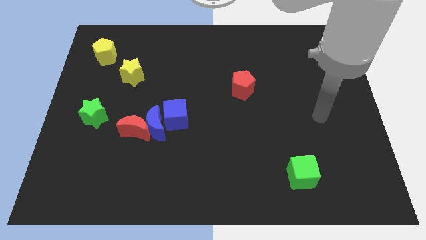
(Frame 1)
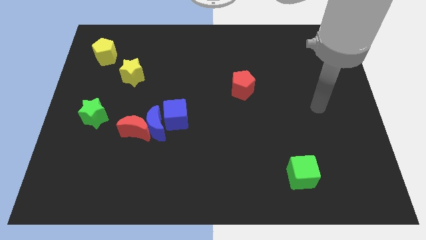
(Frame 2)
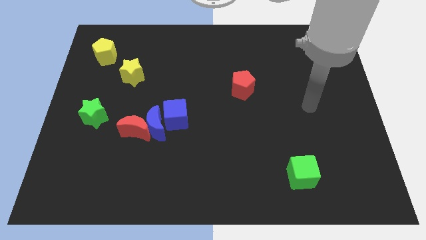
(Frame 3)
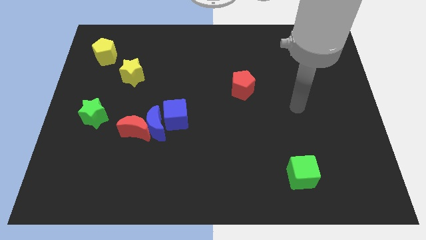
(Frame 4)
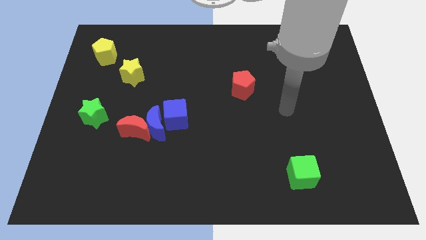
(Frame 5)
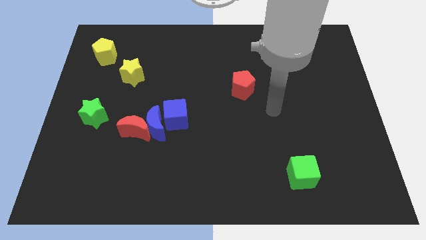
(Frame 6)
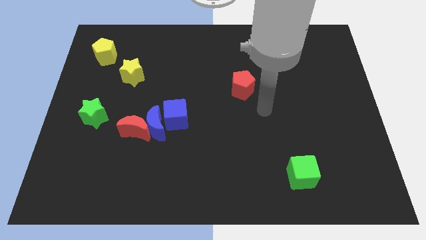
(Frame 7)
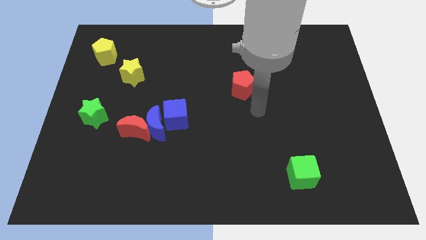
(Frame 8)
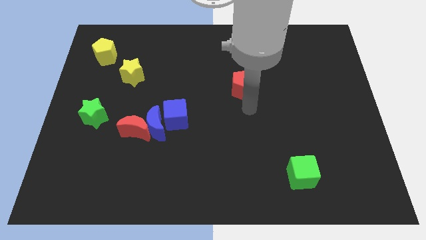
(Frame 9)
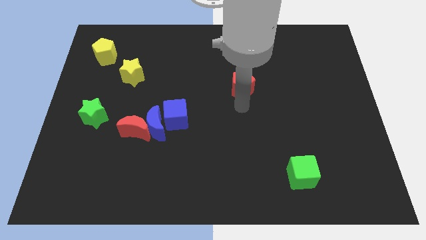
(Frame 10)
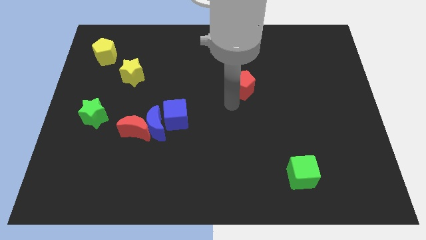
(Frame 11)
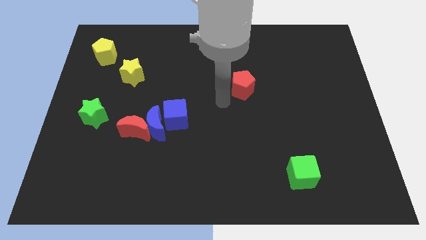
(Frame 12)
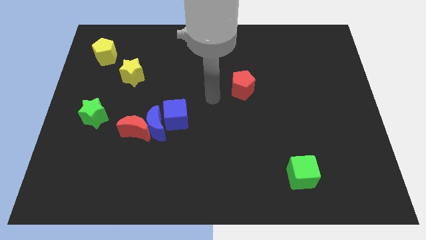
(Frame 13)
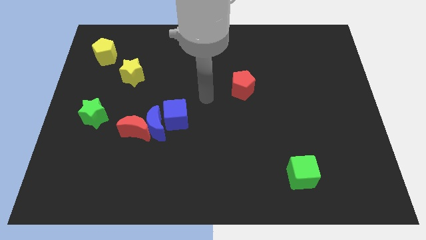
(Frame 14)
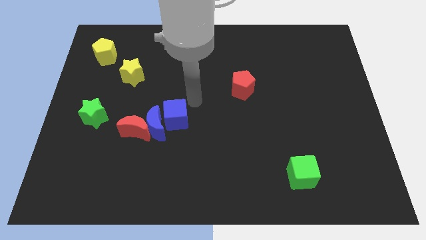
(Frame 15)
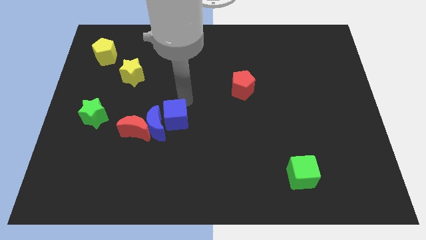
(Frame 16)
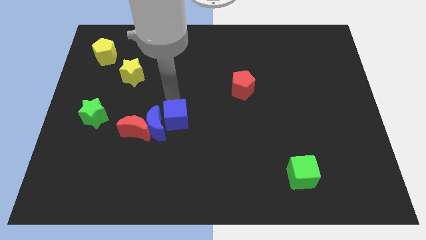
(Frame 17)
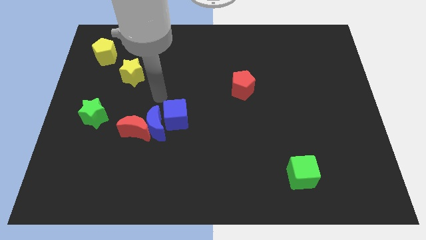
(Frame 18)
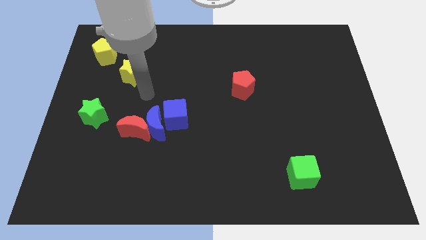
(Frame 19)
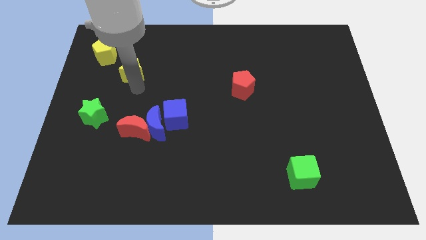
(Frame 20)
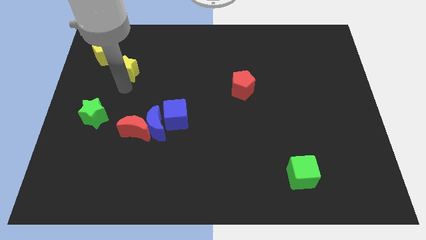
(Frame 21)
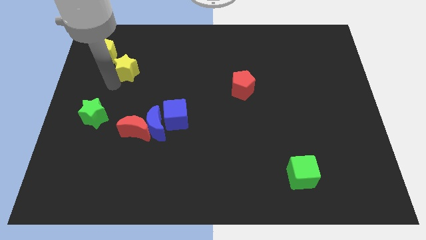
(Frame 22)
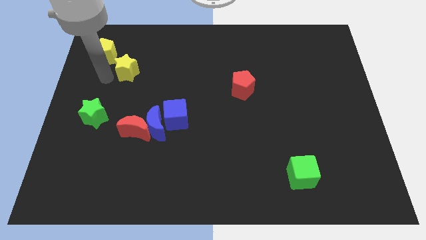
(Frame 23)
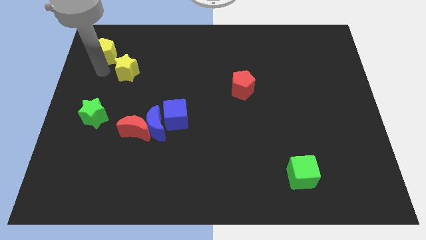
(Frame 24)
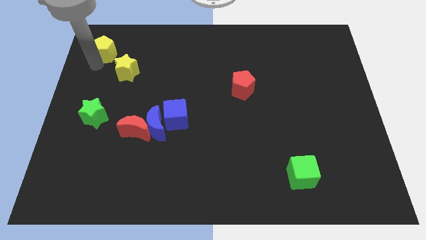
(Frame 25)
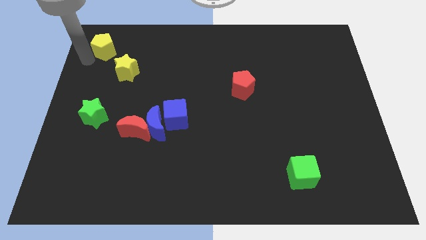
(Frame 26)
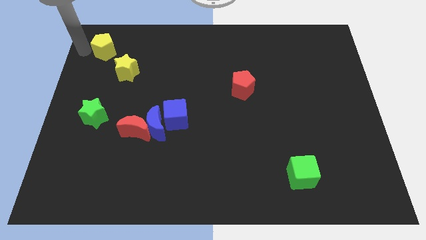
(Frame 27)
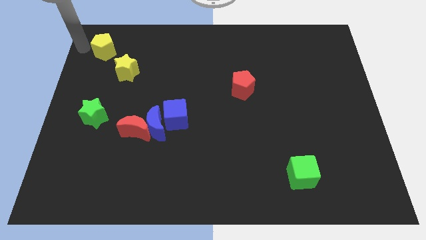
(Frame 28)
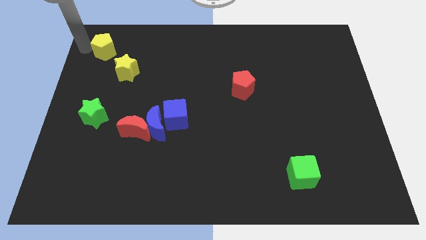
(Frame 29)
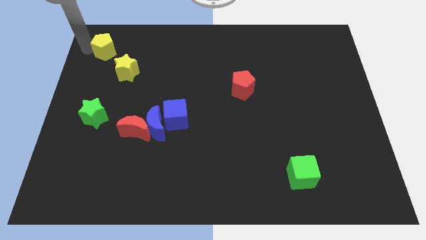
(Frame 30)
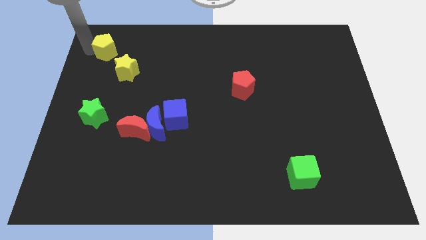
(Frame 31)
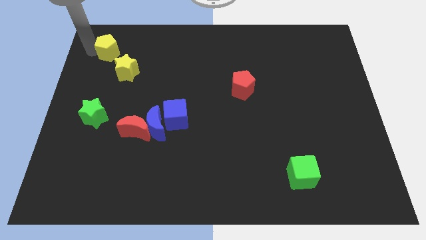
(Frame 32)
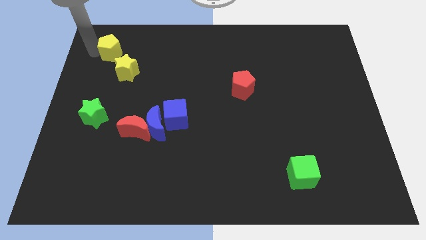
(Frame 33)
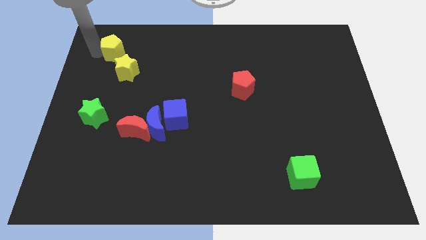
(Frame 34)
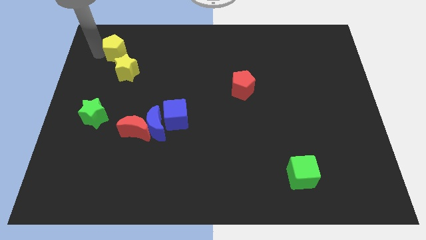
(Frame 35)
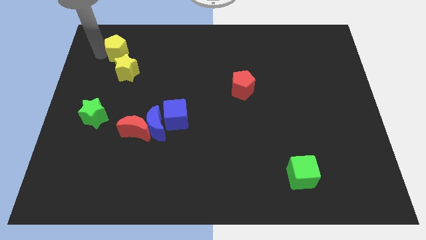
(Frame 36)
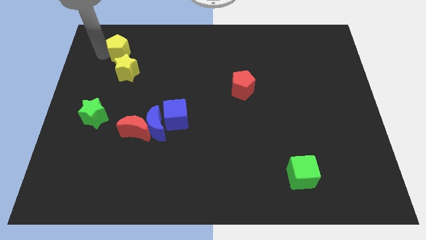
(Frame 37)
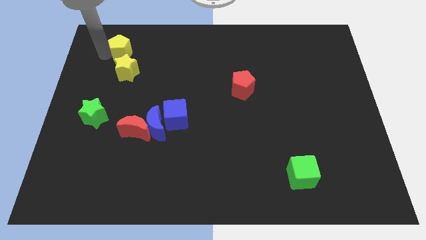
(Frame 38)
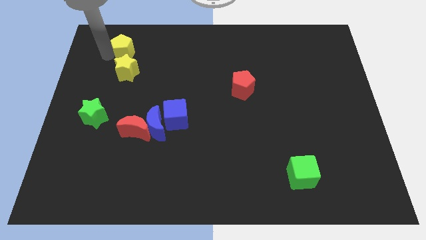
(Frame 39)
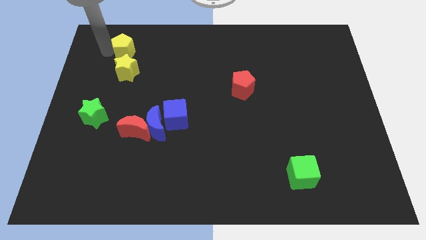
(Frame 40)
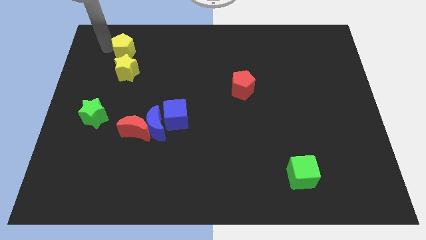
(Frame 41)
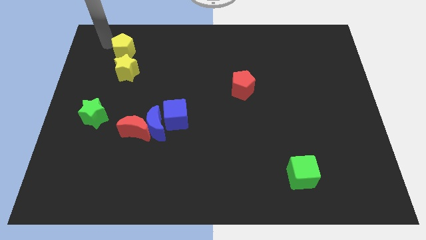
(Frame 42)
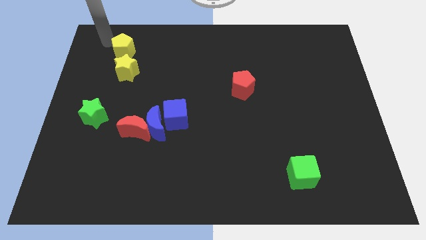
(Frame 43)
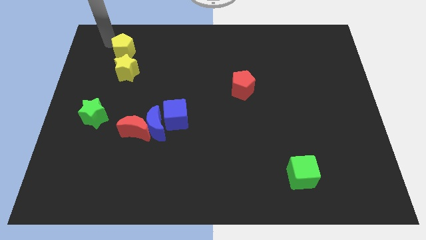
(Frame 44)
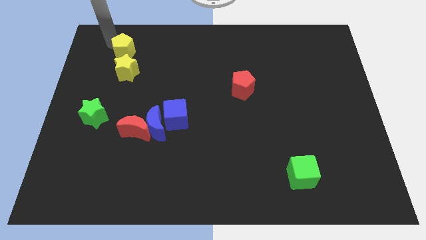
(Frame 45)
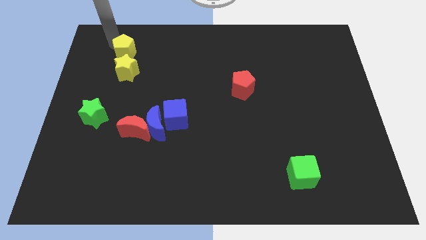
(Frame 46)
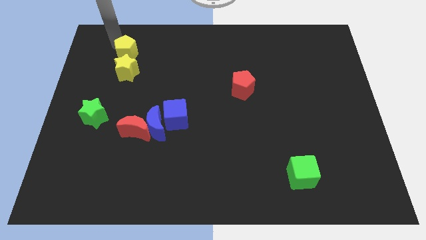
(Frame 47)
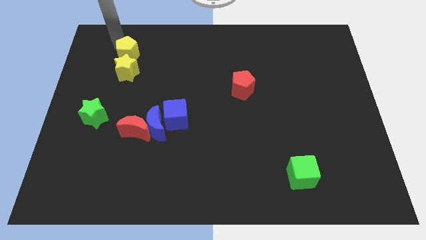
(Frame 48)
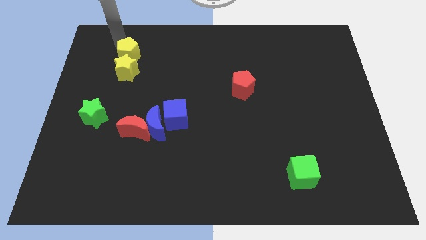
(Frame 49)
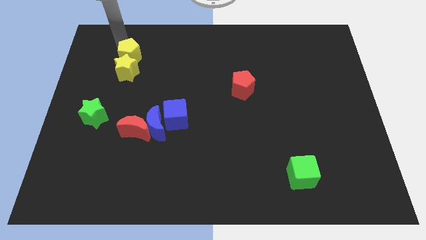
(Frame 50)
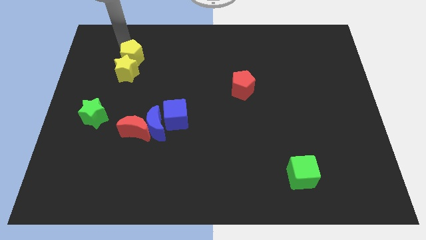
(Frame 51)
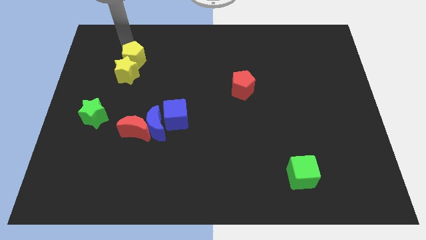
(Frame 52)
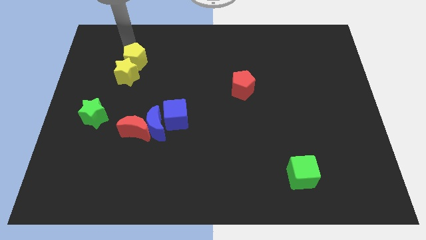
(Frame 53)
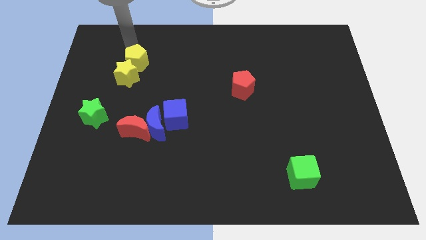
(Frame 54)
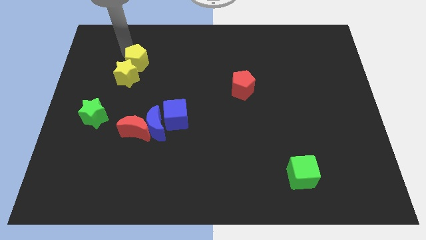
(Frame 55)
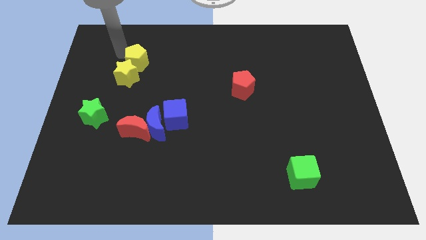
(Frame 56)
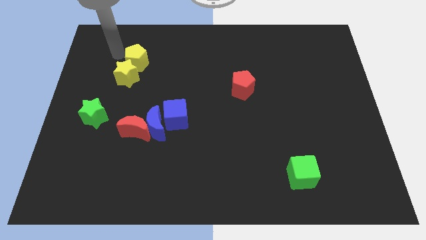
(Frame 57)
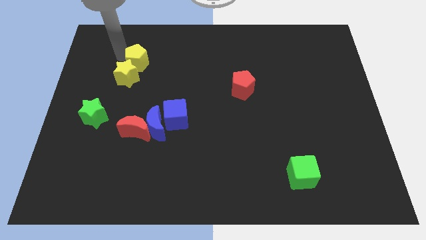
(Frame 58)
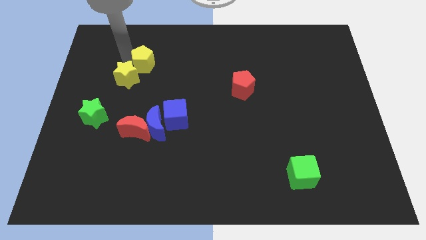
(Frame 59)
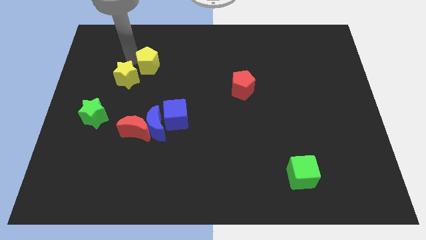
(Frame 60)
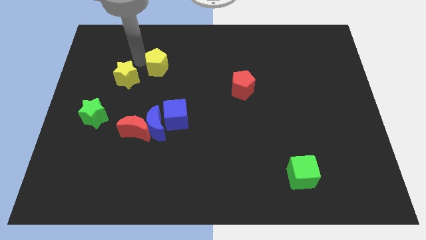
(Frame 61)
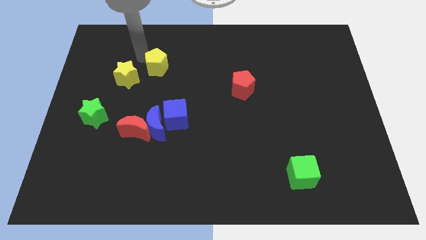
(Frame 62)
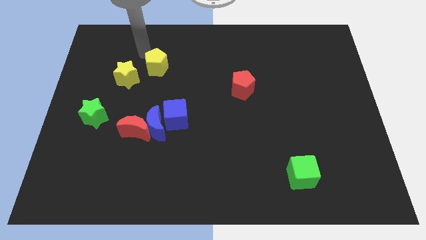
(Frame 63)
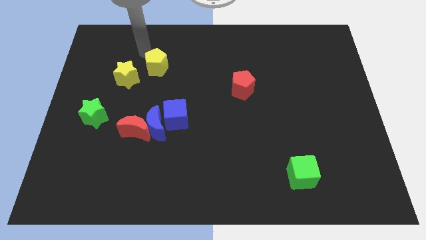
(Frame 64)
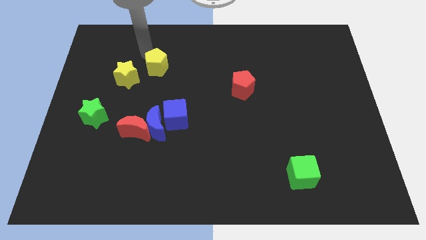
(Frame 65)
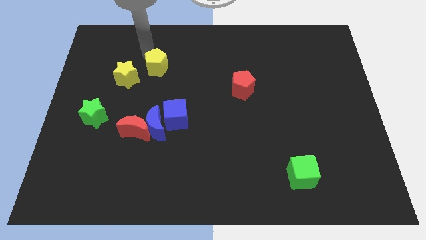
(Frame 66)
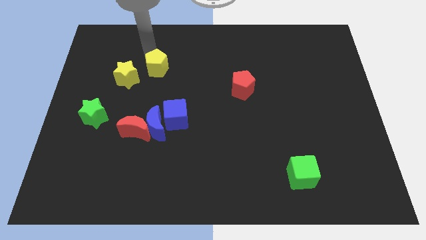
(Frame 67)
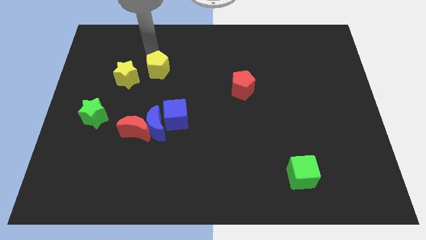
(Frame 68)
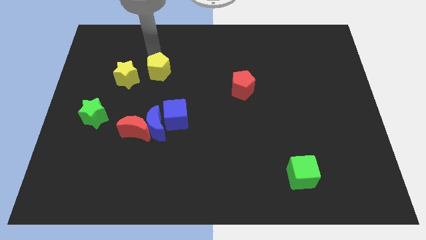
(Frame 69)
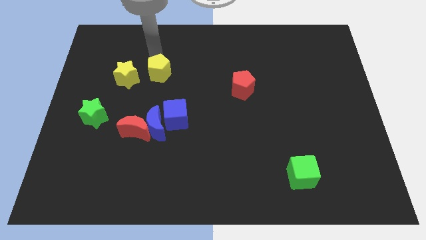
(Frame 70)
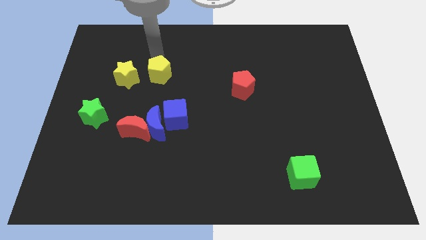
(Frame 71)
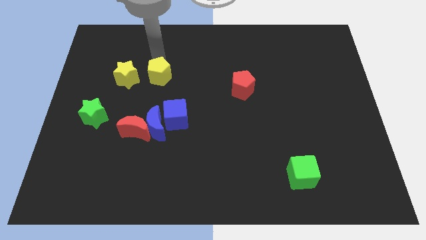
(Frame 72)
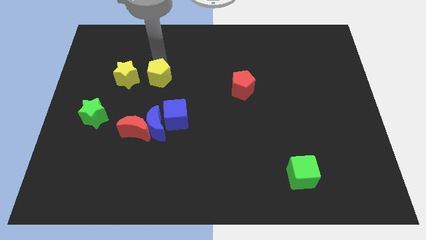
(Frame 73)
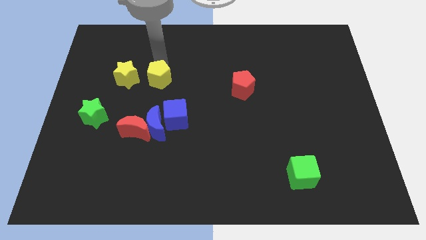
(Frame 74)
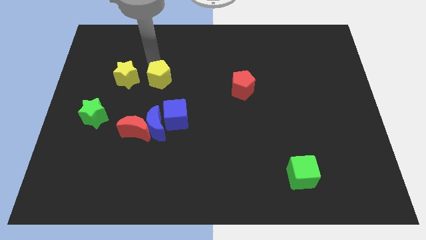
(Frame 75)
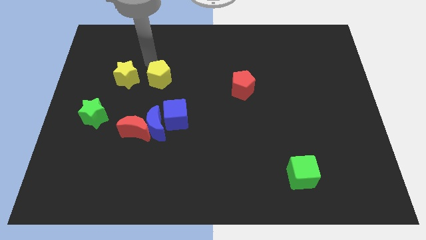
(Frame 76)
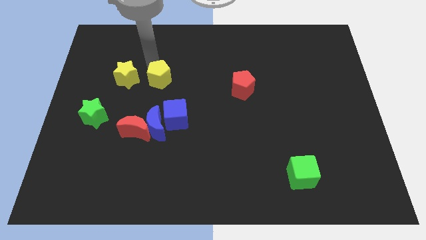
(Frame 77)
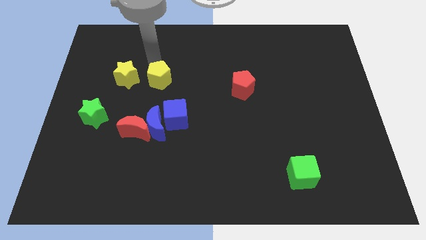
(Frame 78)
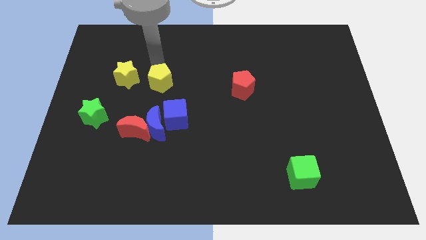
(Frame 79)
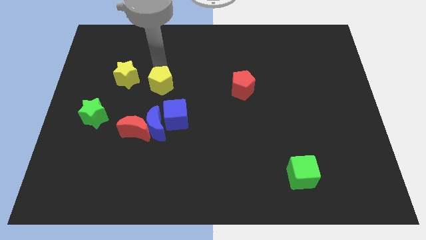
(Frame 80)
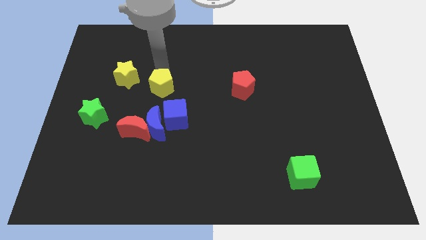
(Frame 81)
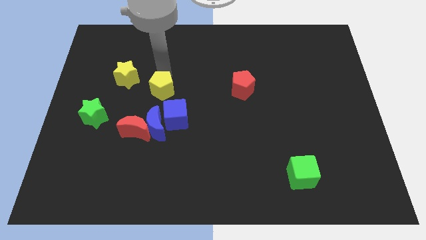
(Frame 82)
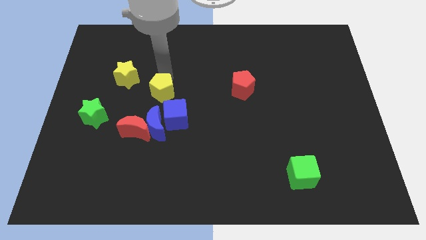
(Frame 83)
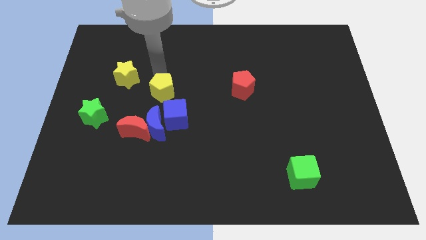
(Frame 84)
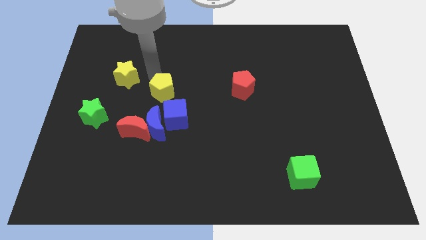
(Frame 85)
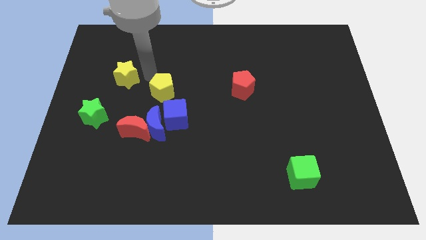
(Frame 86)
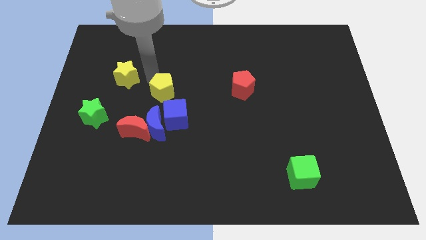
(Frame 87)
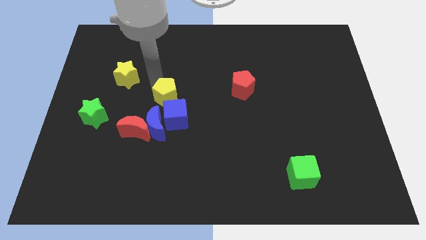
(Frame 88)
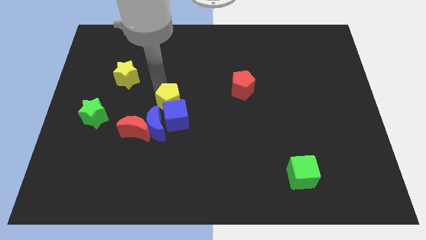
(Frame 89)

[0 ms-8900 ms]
move the yellow pentagon to the top right of the blue moon
